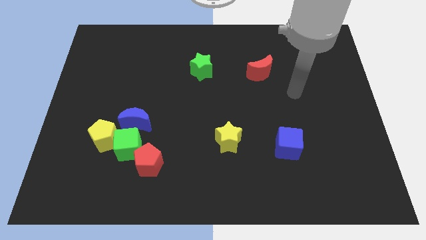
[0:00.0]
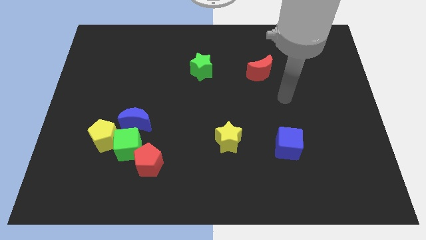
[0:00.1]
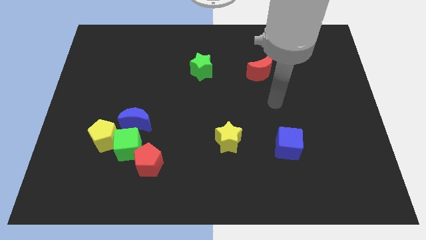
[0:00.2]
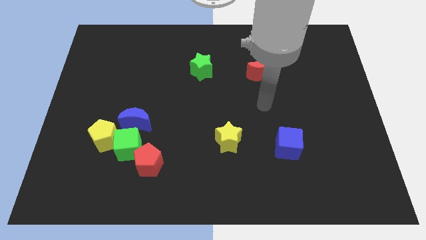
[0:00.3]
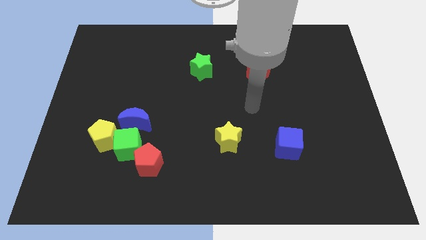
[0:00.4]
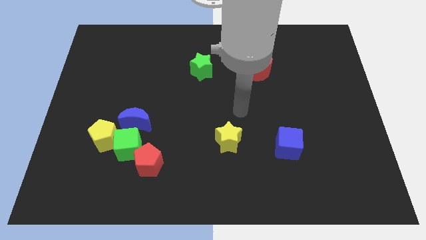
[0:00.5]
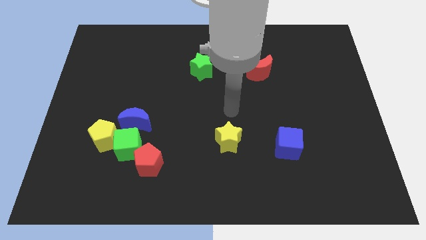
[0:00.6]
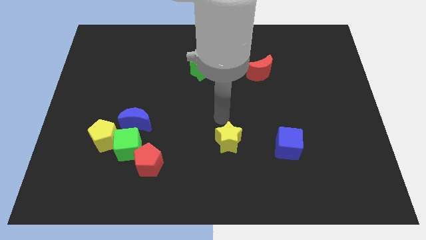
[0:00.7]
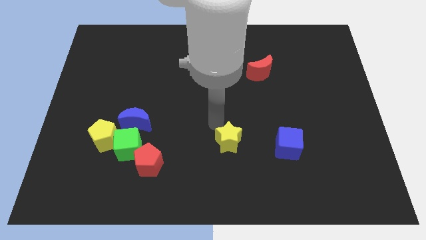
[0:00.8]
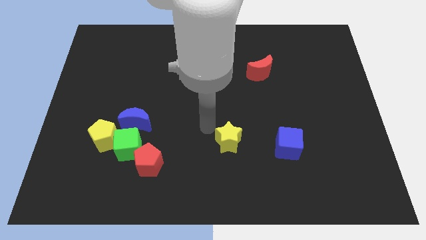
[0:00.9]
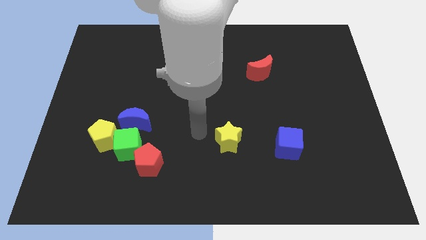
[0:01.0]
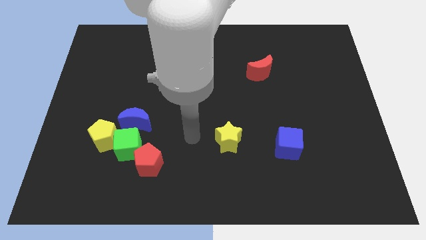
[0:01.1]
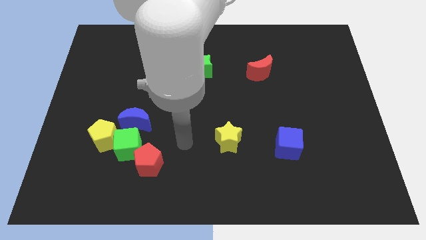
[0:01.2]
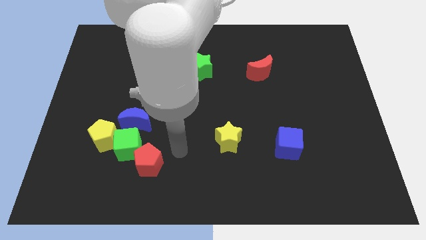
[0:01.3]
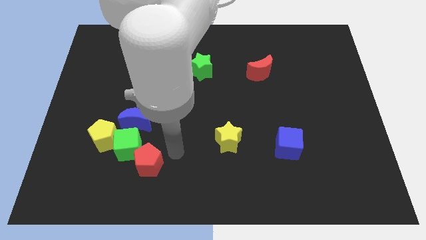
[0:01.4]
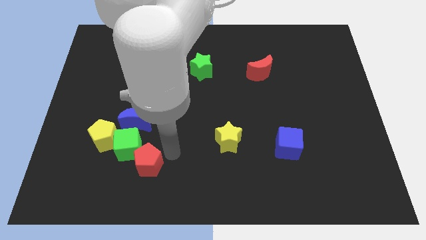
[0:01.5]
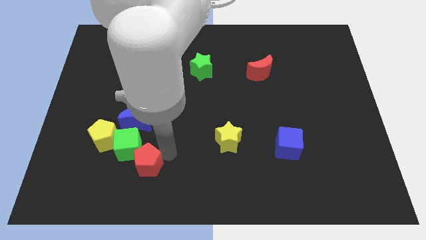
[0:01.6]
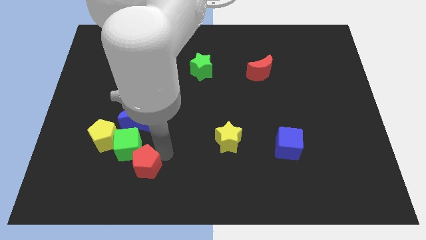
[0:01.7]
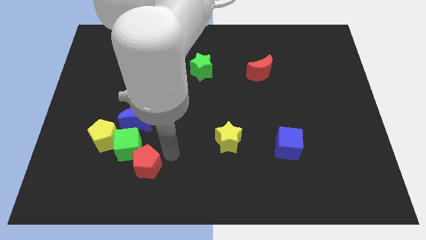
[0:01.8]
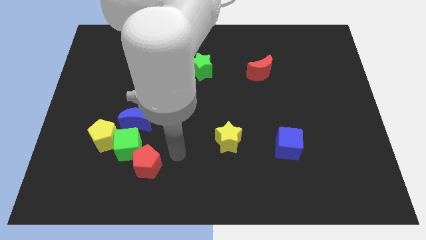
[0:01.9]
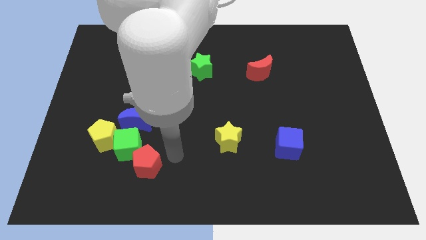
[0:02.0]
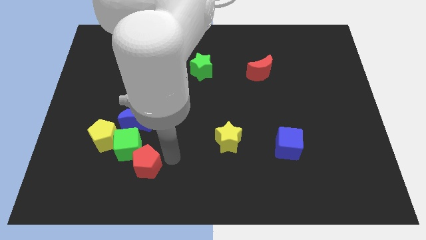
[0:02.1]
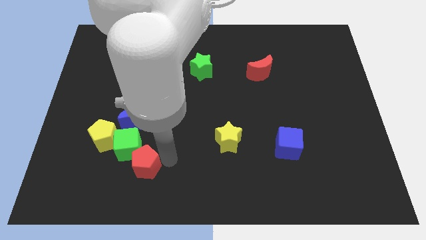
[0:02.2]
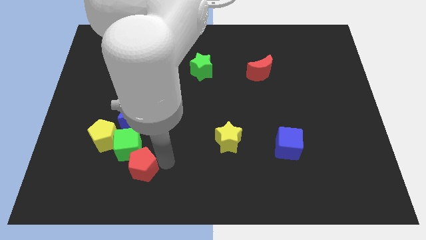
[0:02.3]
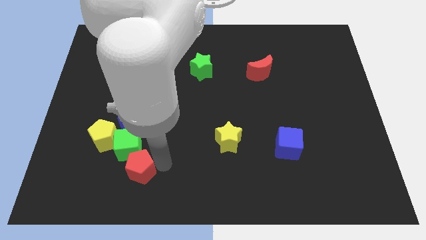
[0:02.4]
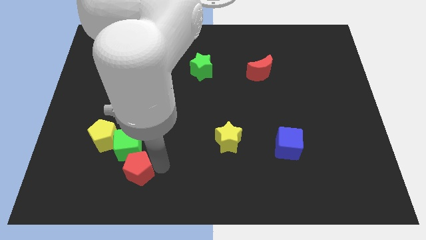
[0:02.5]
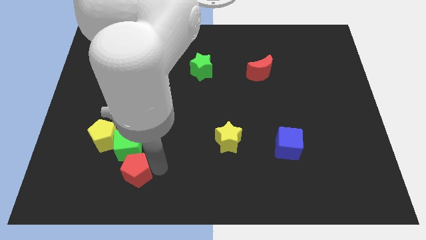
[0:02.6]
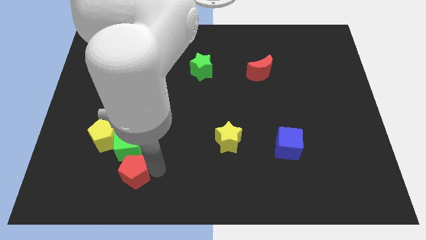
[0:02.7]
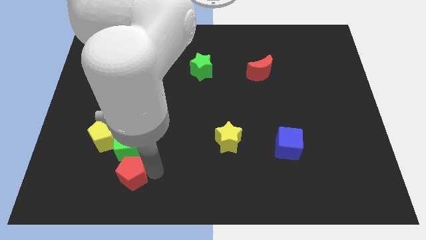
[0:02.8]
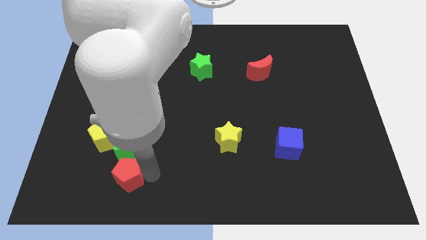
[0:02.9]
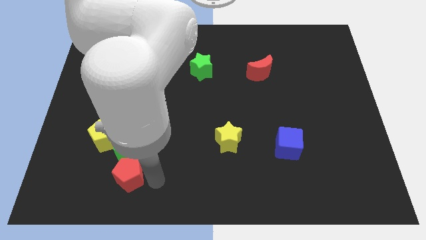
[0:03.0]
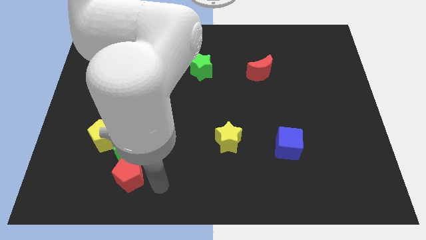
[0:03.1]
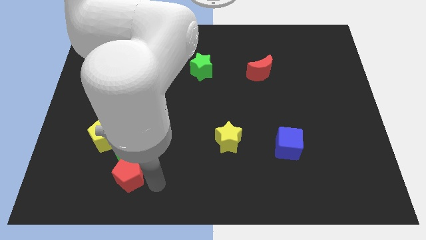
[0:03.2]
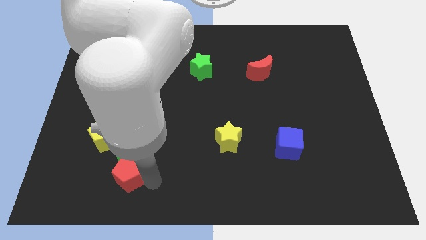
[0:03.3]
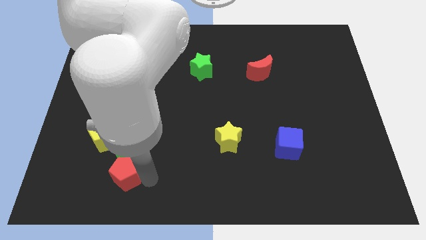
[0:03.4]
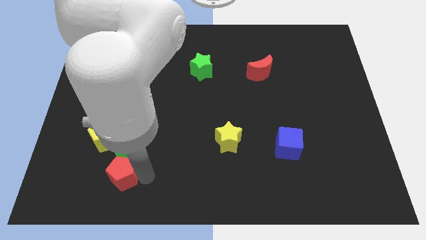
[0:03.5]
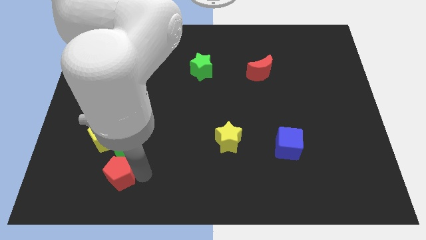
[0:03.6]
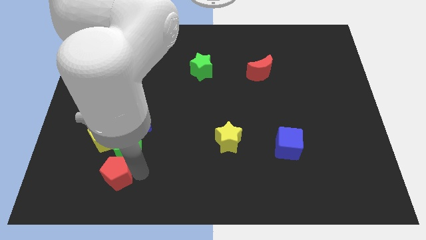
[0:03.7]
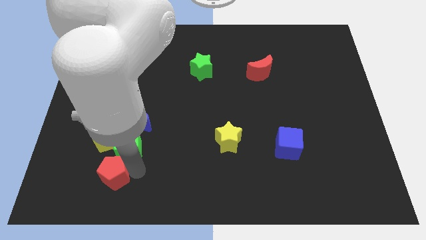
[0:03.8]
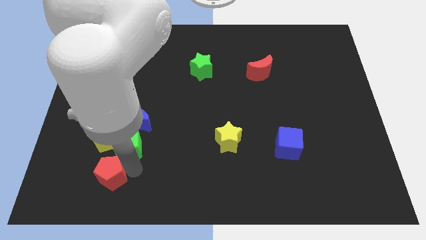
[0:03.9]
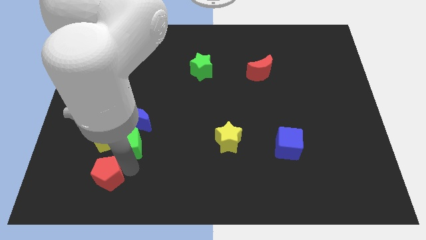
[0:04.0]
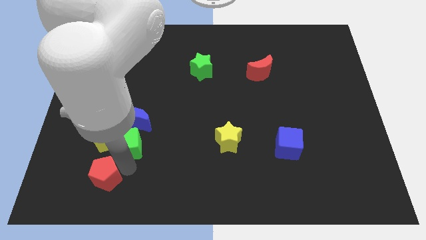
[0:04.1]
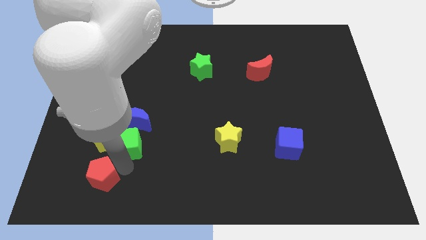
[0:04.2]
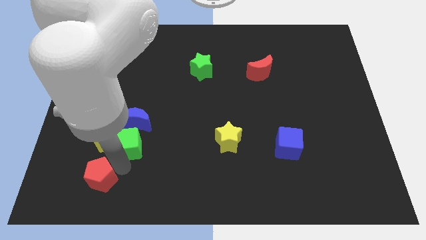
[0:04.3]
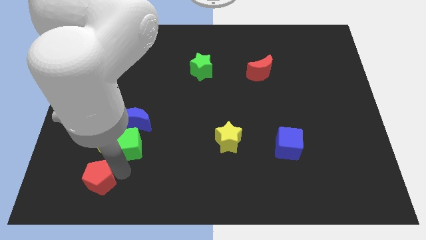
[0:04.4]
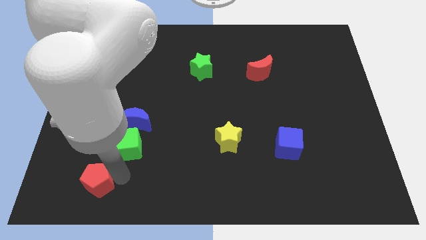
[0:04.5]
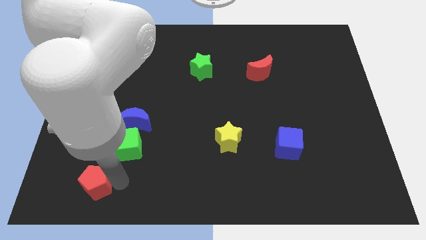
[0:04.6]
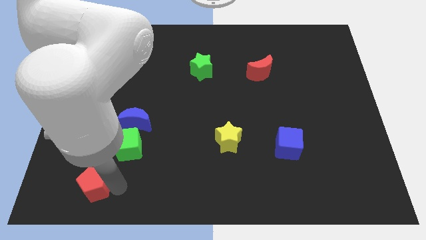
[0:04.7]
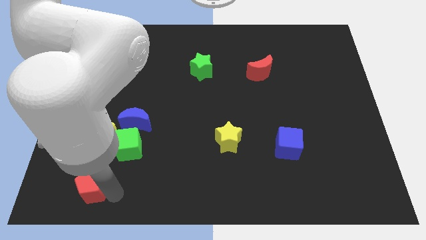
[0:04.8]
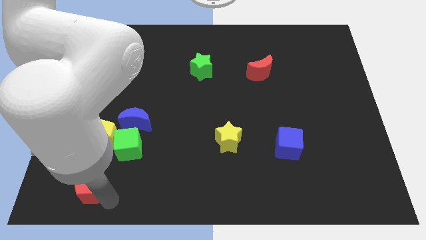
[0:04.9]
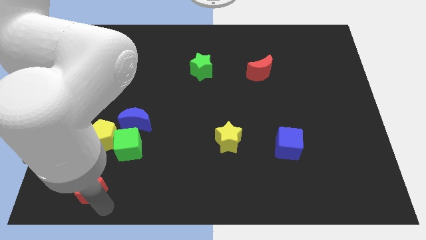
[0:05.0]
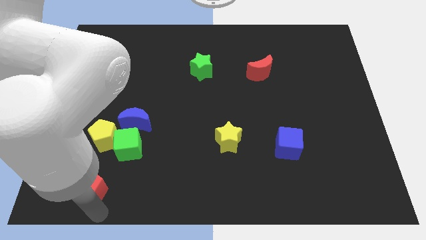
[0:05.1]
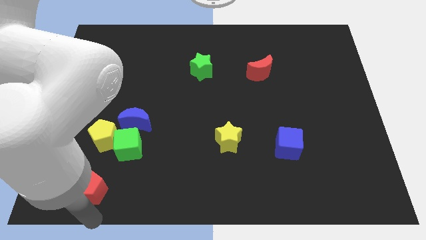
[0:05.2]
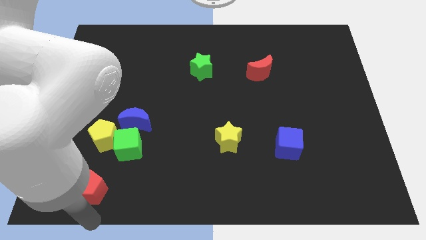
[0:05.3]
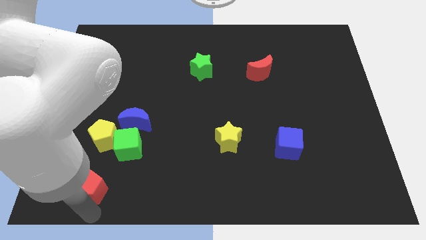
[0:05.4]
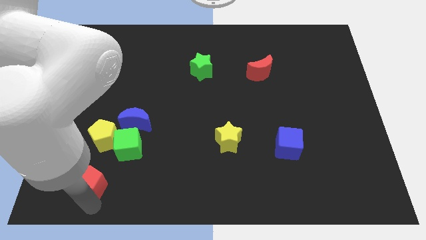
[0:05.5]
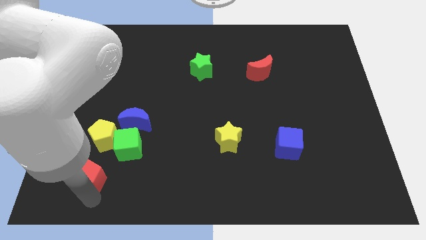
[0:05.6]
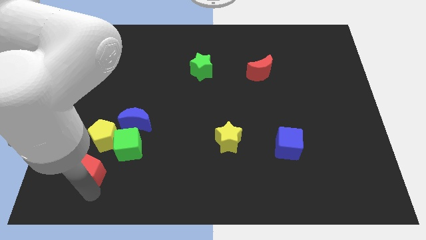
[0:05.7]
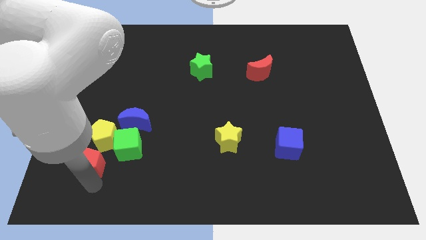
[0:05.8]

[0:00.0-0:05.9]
push the red pentagon to the bottom left of the yellow pentagon

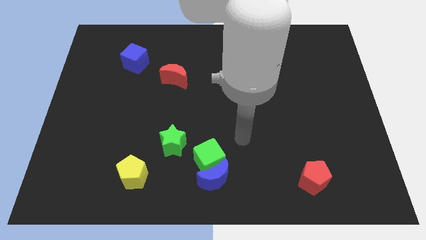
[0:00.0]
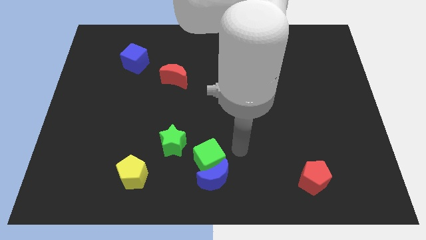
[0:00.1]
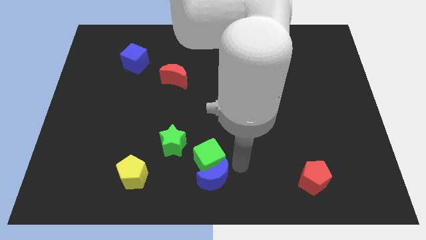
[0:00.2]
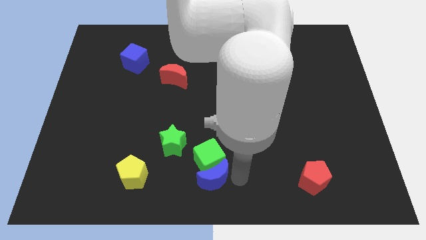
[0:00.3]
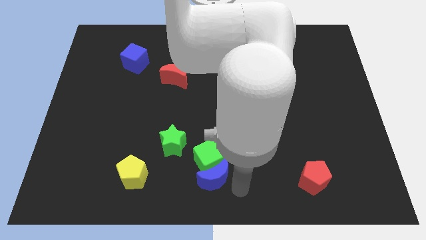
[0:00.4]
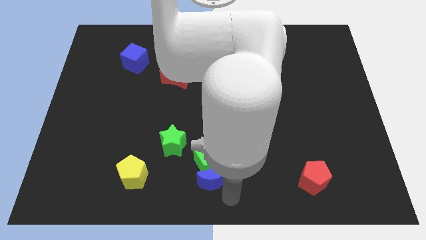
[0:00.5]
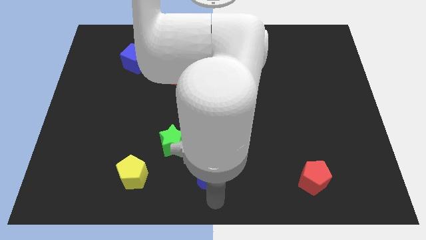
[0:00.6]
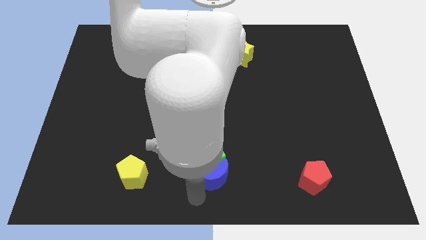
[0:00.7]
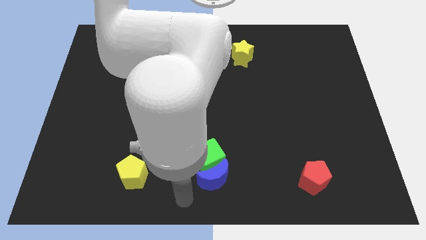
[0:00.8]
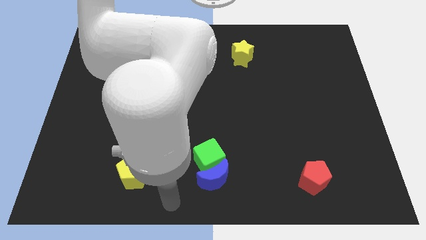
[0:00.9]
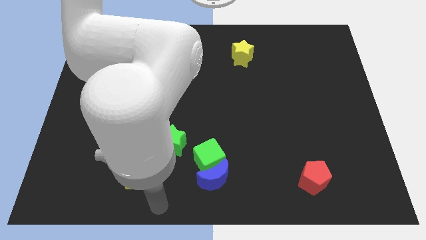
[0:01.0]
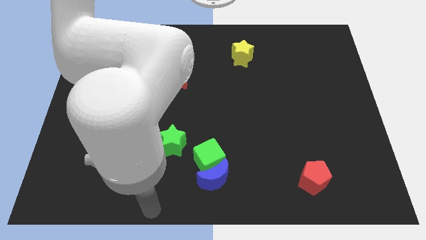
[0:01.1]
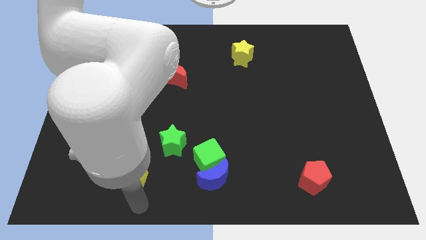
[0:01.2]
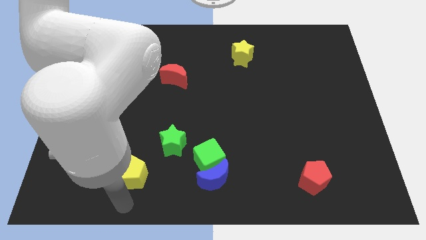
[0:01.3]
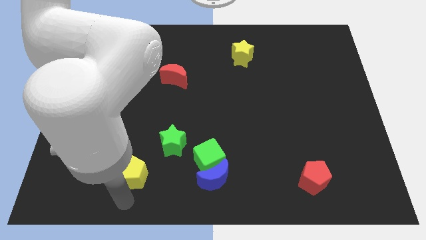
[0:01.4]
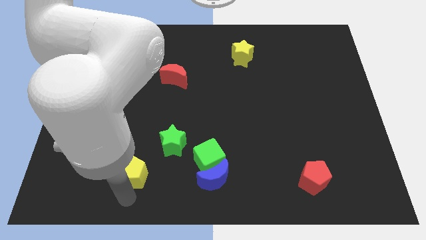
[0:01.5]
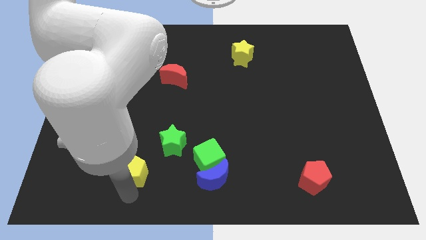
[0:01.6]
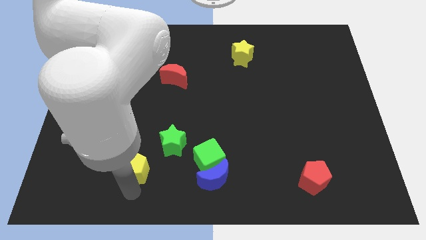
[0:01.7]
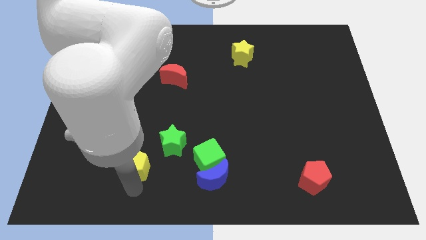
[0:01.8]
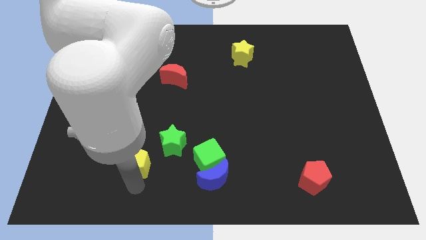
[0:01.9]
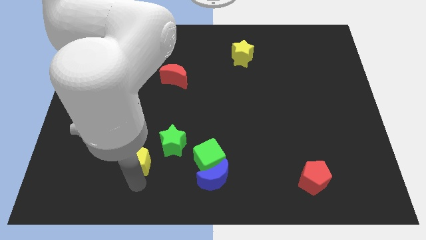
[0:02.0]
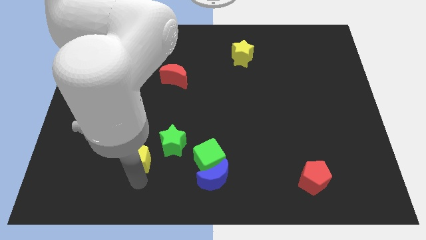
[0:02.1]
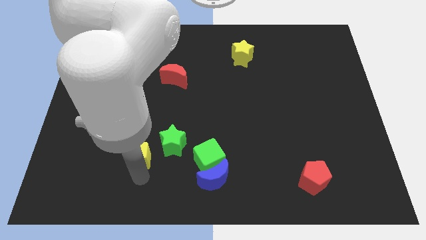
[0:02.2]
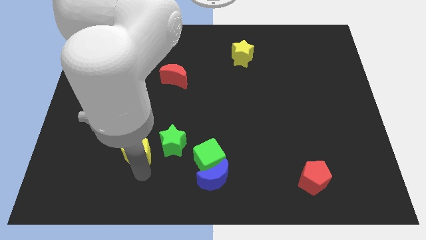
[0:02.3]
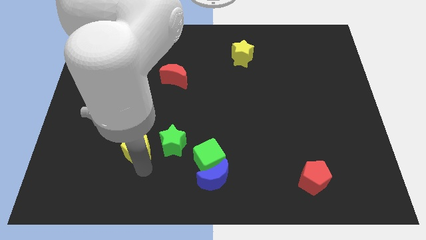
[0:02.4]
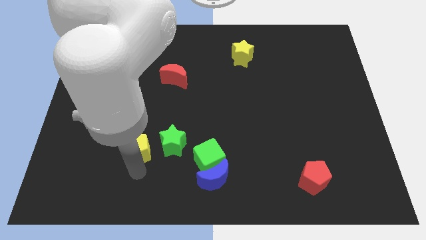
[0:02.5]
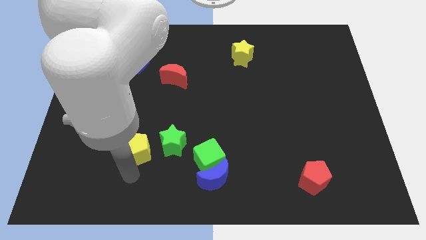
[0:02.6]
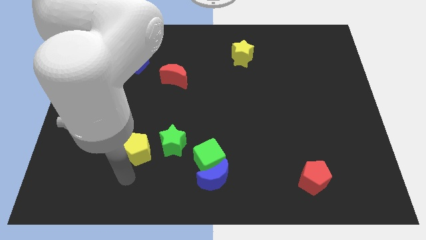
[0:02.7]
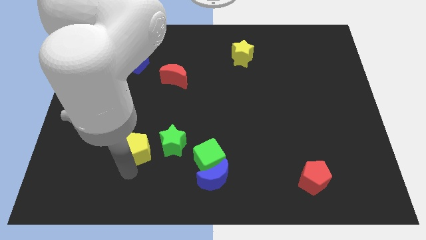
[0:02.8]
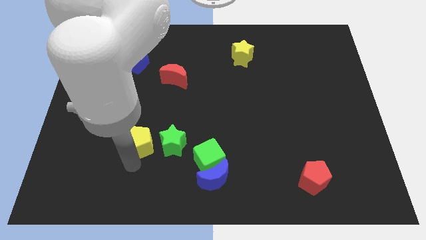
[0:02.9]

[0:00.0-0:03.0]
put the yellow pentagon to the top left of the green star

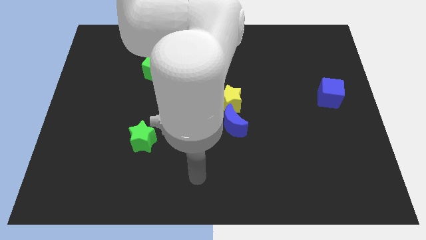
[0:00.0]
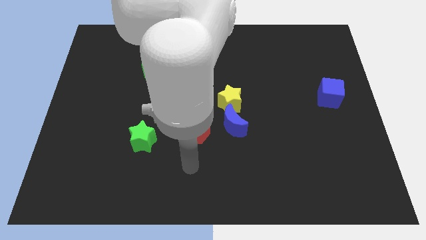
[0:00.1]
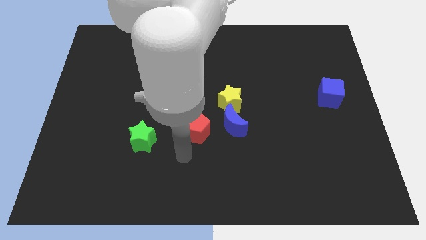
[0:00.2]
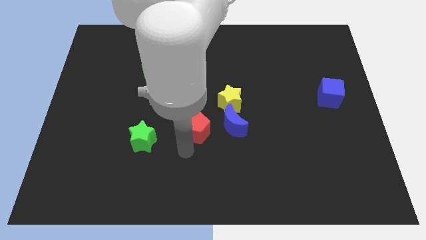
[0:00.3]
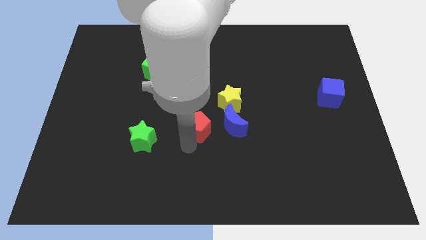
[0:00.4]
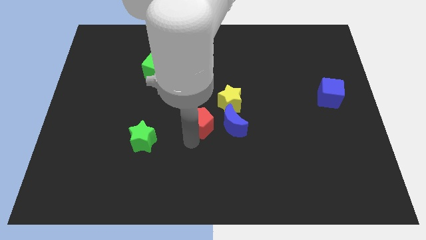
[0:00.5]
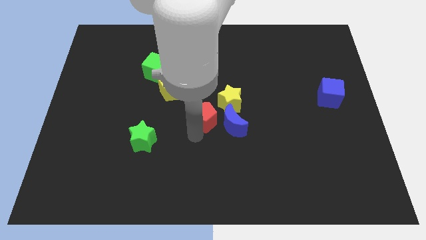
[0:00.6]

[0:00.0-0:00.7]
put the red pentagon to the top left of the blue moon
